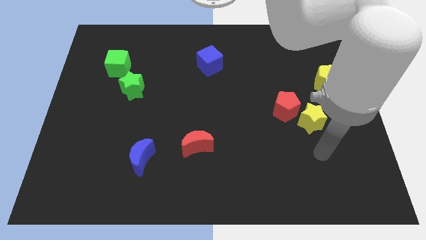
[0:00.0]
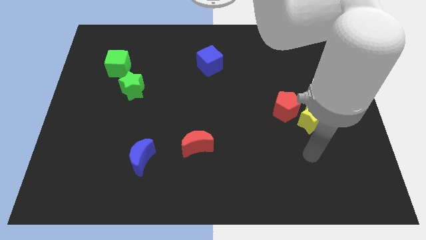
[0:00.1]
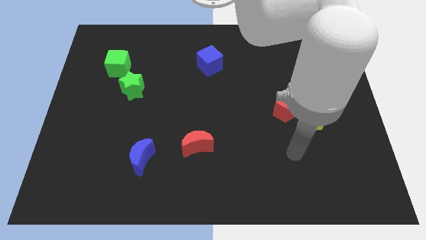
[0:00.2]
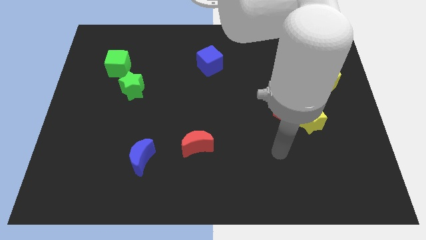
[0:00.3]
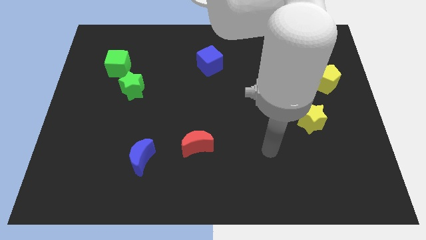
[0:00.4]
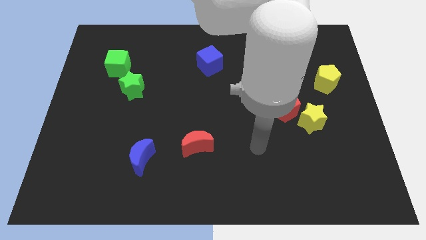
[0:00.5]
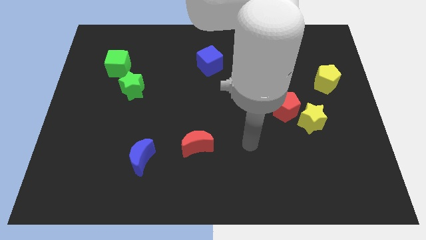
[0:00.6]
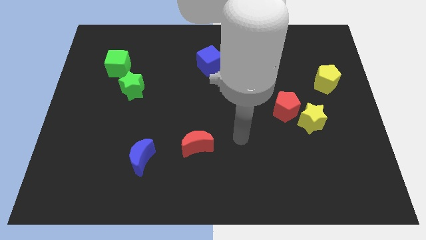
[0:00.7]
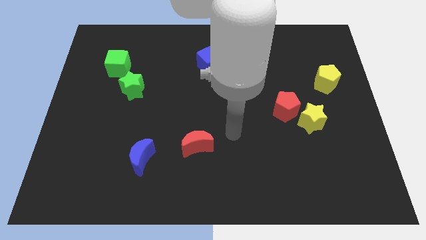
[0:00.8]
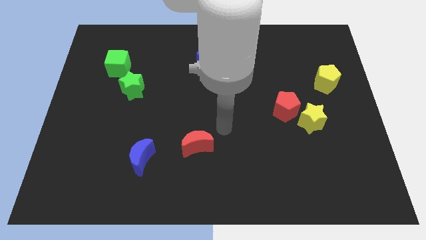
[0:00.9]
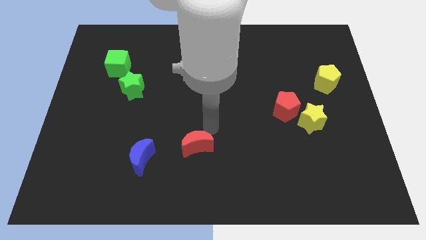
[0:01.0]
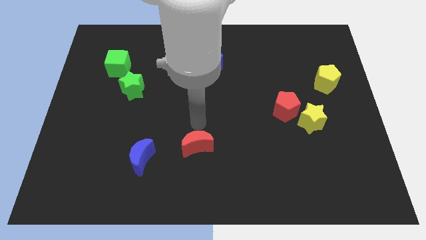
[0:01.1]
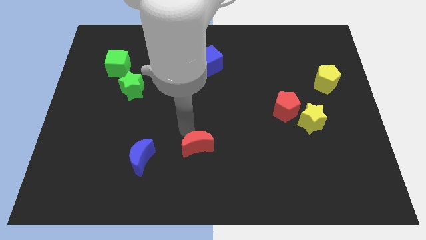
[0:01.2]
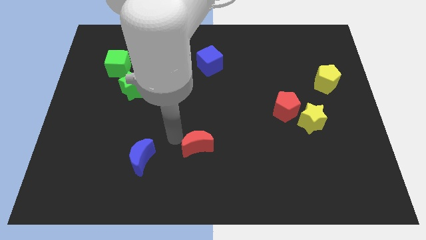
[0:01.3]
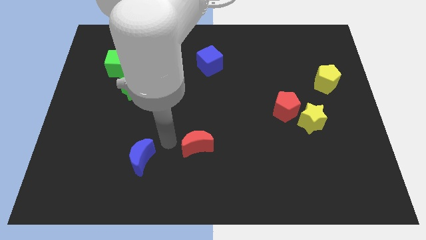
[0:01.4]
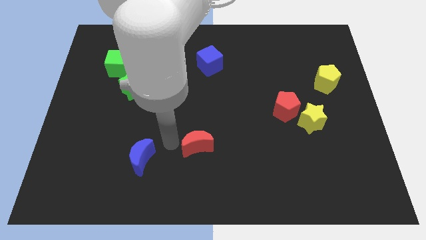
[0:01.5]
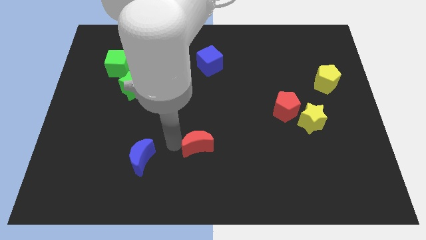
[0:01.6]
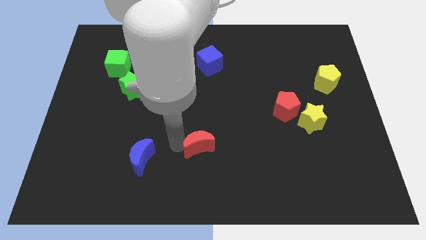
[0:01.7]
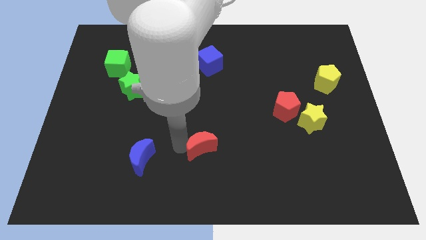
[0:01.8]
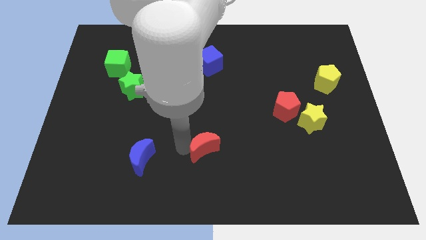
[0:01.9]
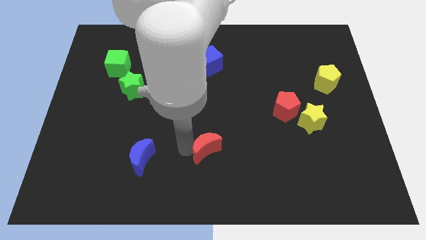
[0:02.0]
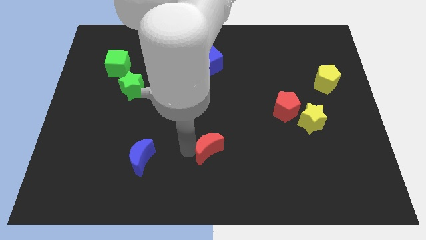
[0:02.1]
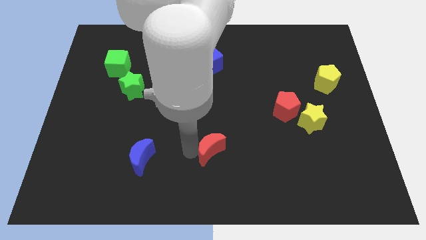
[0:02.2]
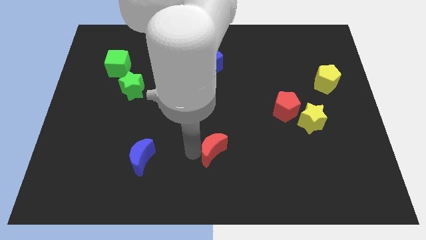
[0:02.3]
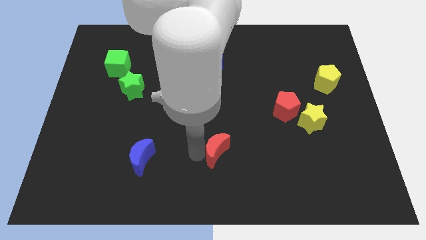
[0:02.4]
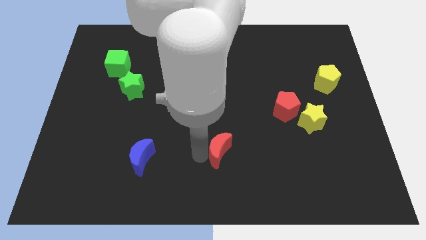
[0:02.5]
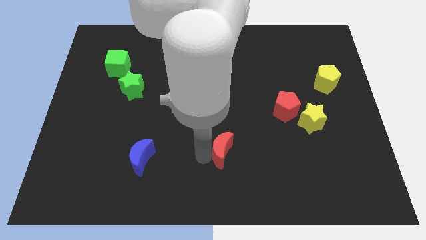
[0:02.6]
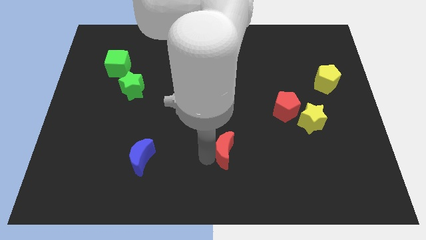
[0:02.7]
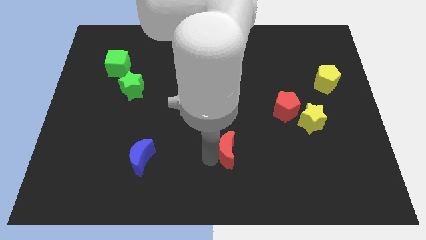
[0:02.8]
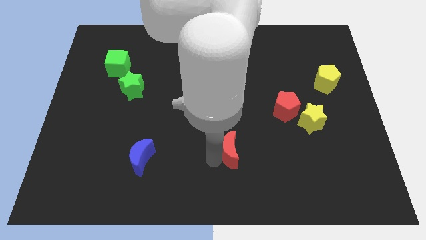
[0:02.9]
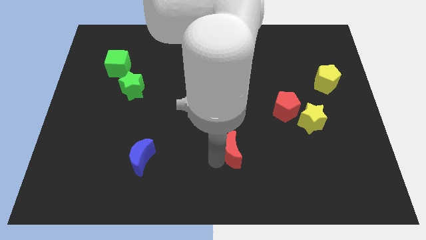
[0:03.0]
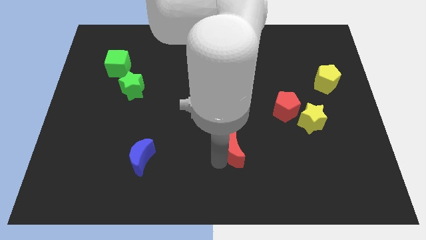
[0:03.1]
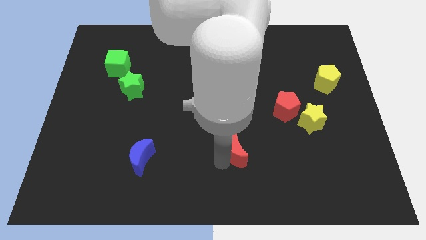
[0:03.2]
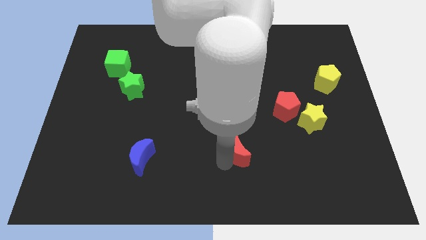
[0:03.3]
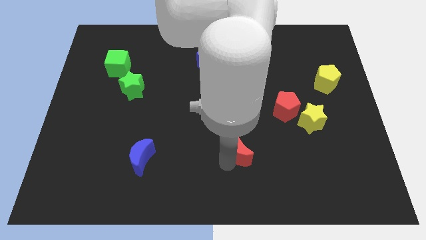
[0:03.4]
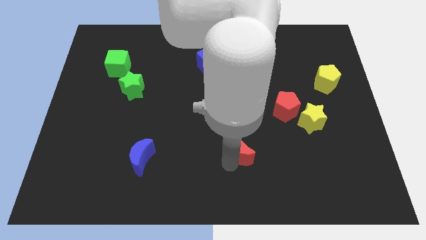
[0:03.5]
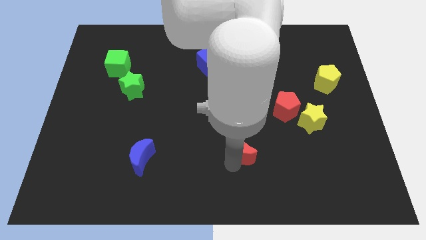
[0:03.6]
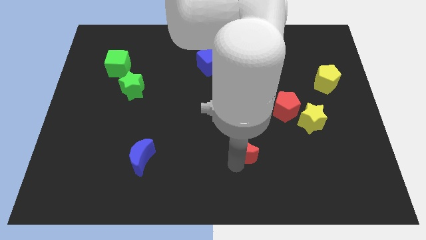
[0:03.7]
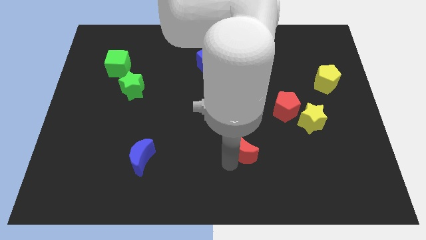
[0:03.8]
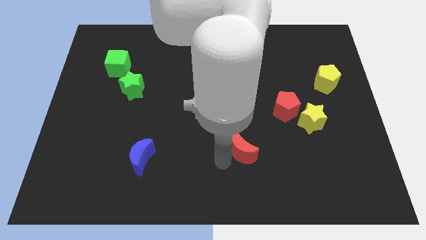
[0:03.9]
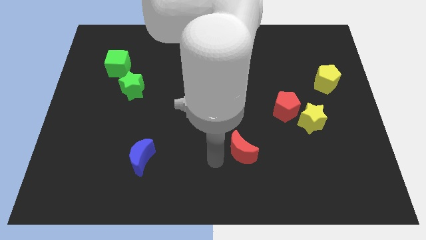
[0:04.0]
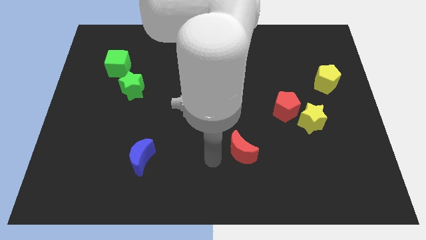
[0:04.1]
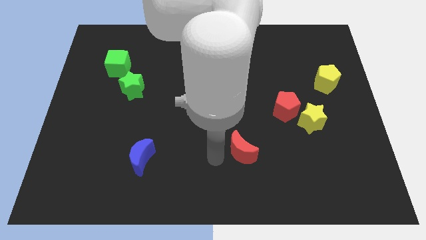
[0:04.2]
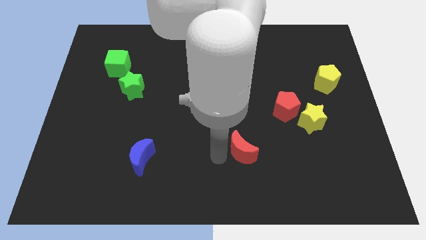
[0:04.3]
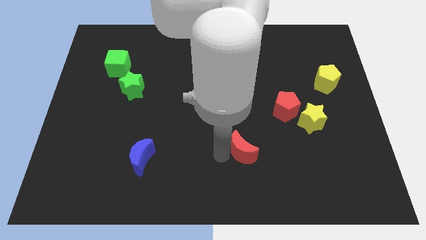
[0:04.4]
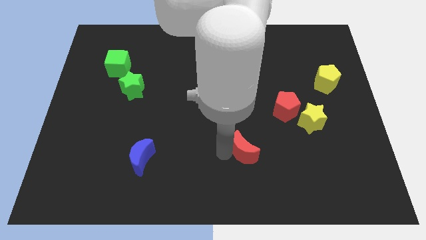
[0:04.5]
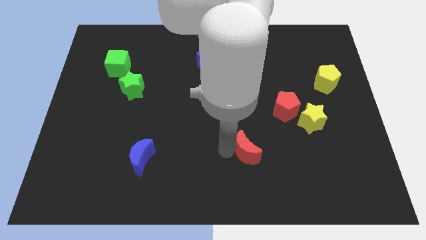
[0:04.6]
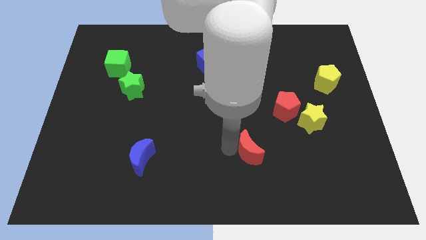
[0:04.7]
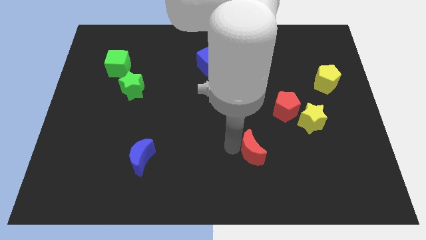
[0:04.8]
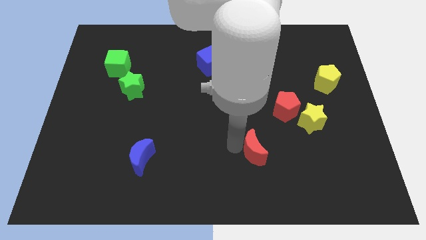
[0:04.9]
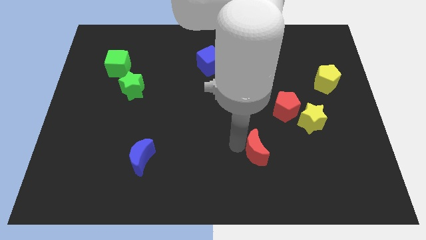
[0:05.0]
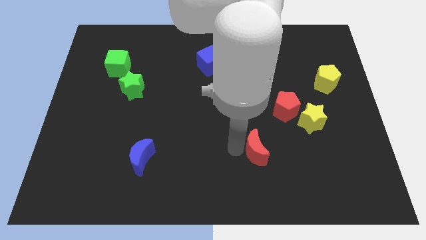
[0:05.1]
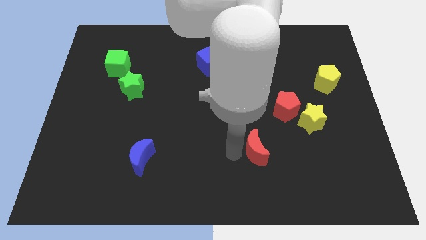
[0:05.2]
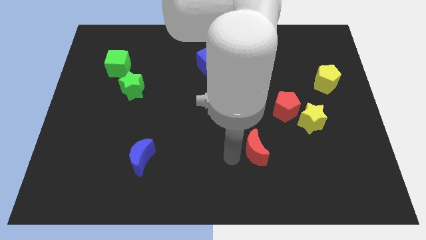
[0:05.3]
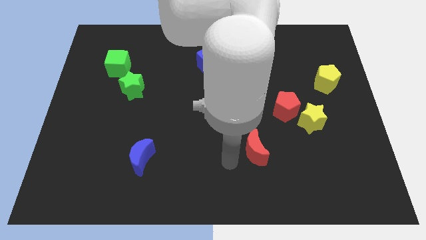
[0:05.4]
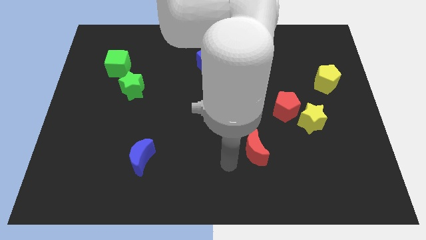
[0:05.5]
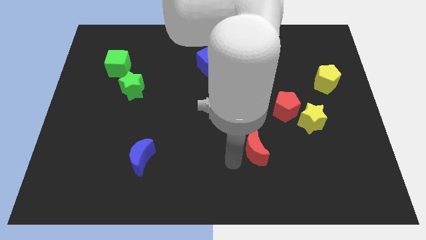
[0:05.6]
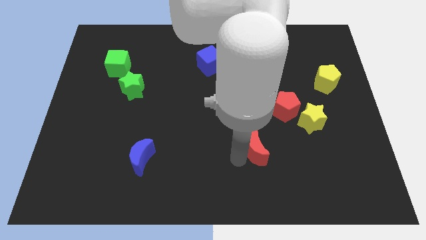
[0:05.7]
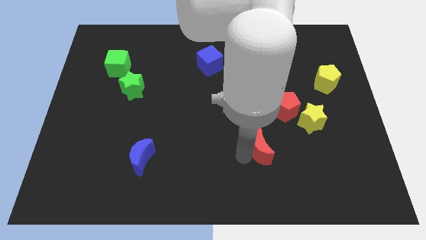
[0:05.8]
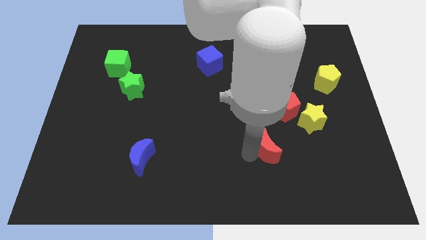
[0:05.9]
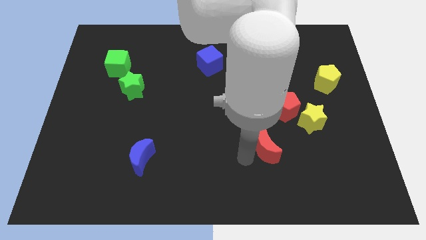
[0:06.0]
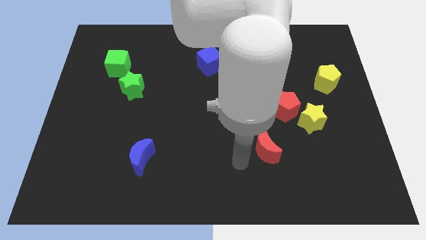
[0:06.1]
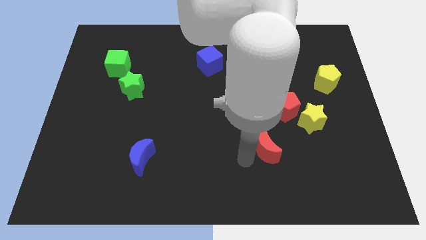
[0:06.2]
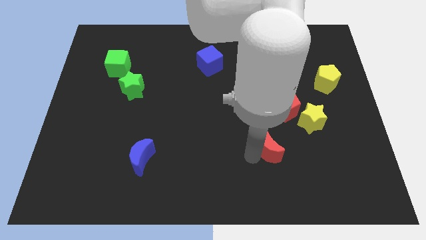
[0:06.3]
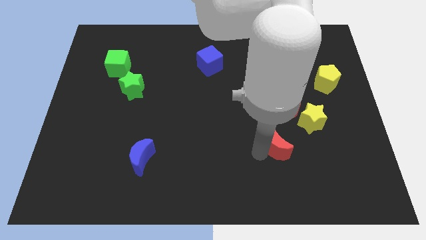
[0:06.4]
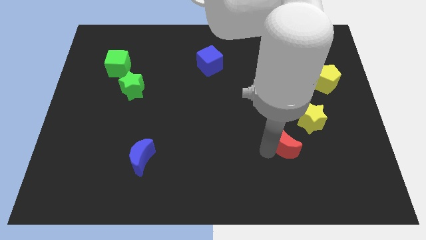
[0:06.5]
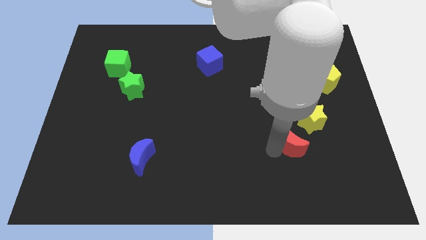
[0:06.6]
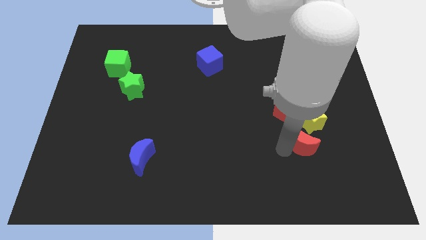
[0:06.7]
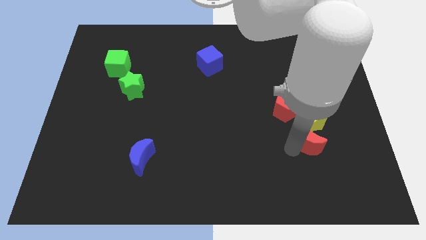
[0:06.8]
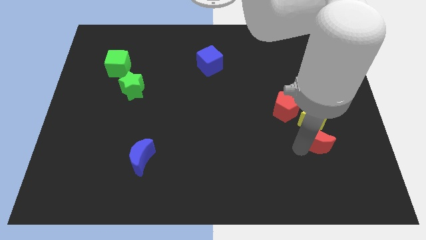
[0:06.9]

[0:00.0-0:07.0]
move the red moon towards the yellow star
